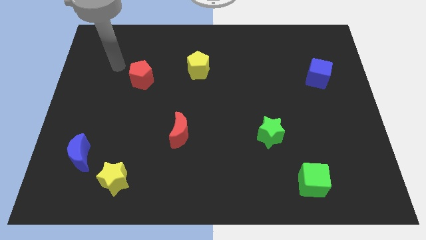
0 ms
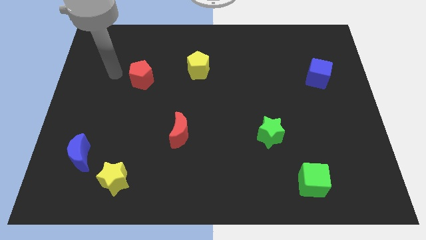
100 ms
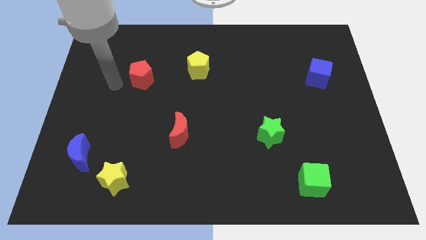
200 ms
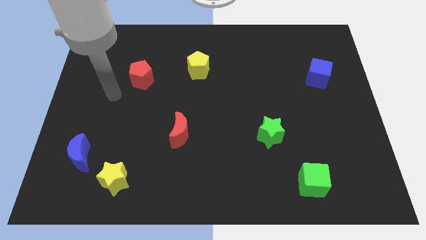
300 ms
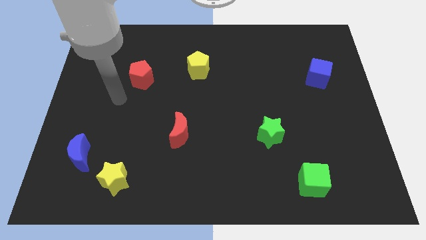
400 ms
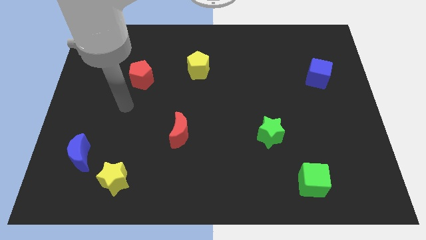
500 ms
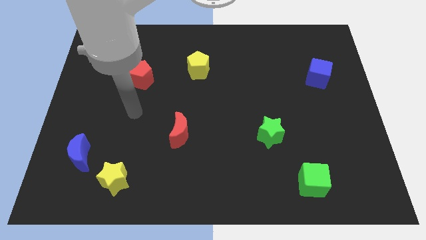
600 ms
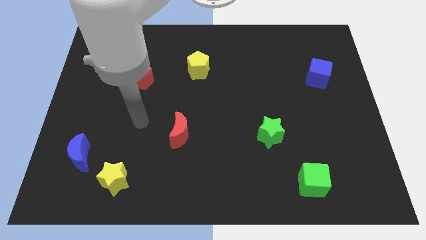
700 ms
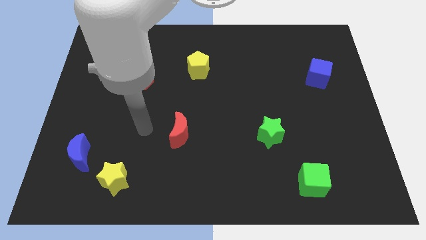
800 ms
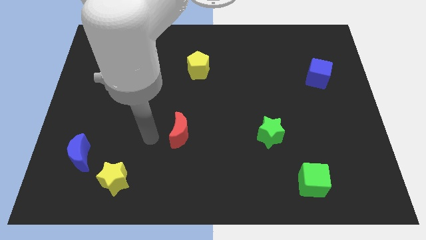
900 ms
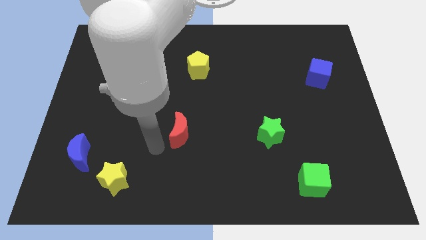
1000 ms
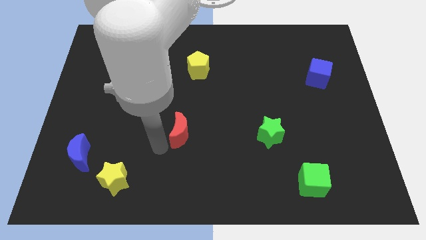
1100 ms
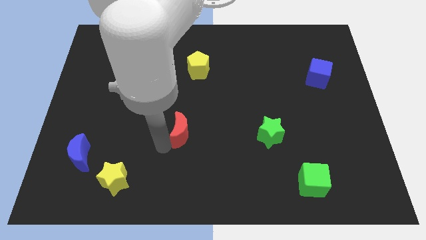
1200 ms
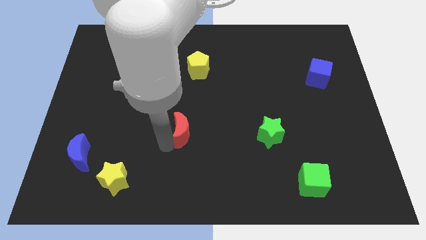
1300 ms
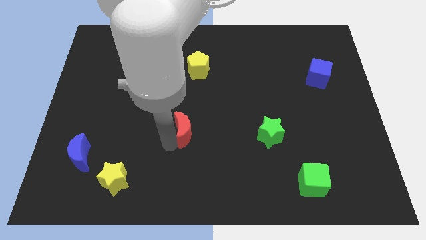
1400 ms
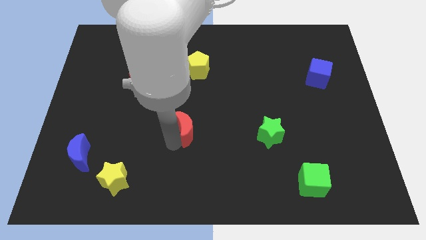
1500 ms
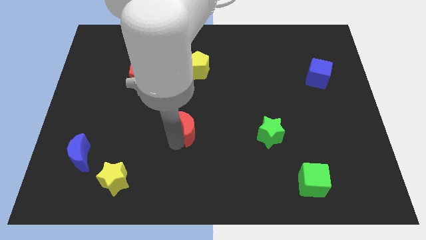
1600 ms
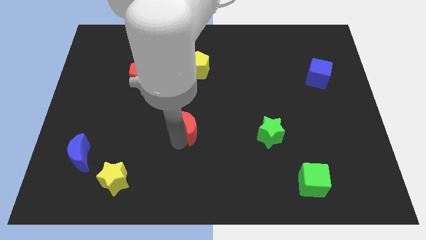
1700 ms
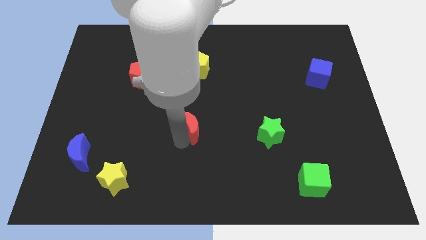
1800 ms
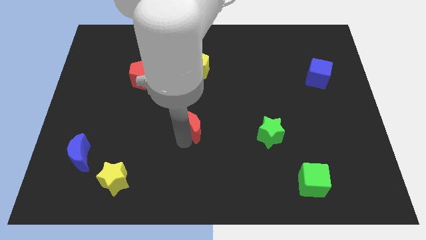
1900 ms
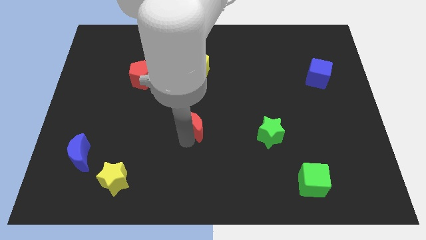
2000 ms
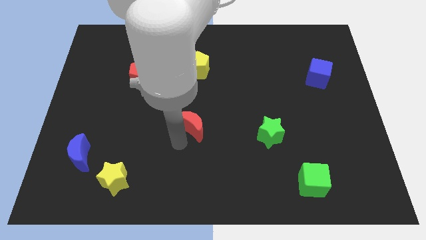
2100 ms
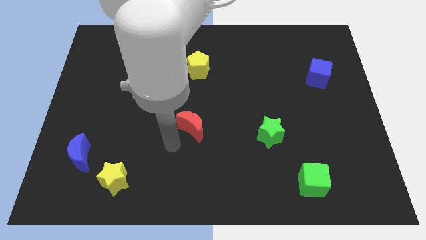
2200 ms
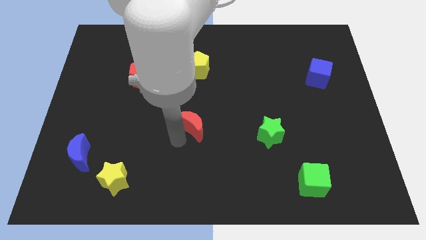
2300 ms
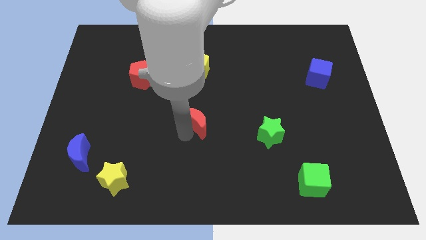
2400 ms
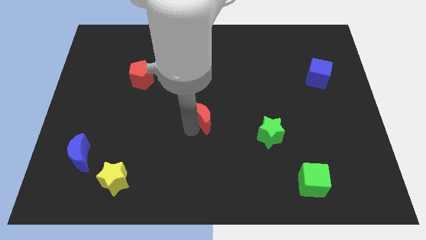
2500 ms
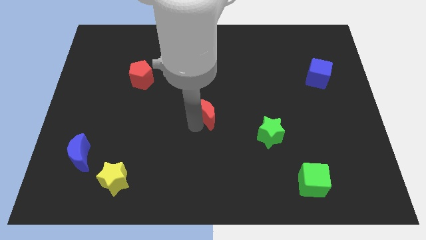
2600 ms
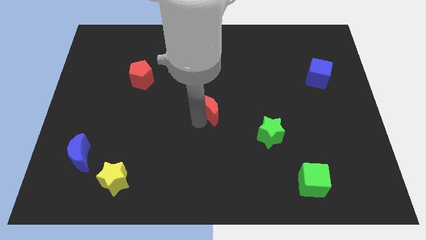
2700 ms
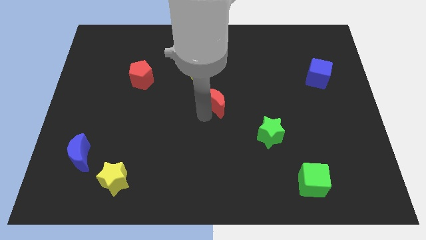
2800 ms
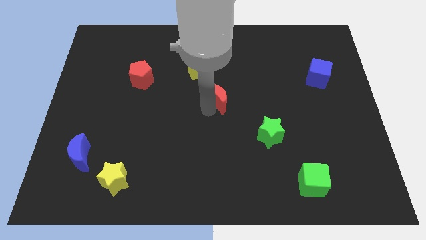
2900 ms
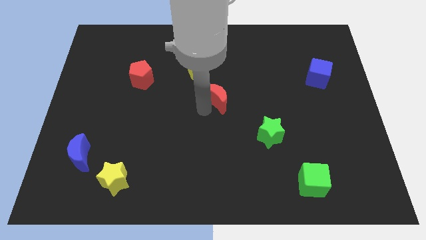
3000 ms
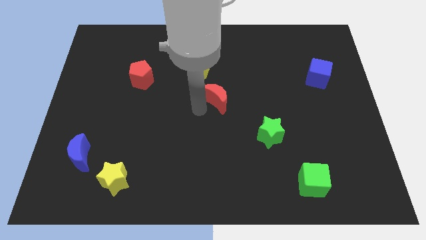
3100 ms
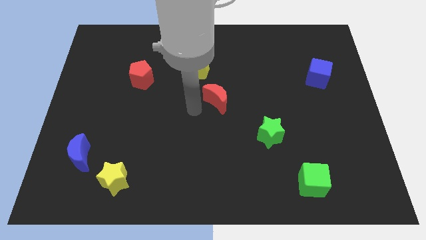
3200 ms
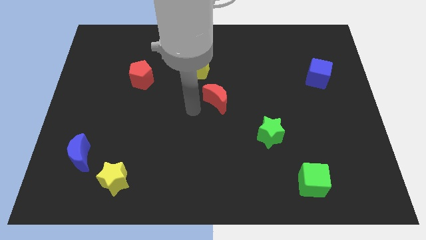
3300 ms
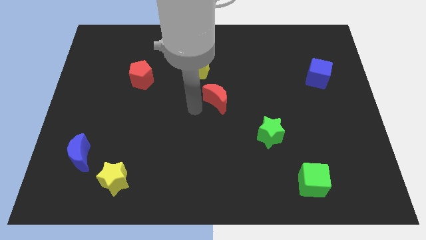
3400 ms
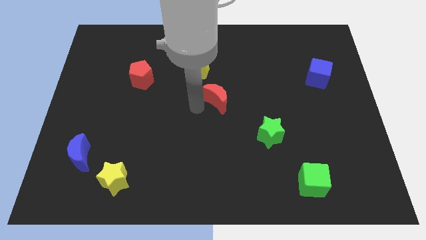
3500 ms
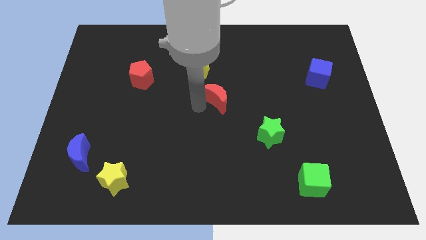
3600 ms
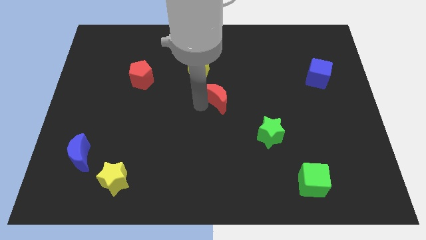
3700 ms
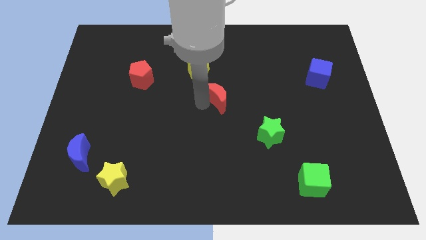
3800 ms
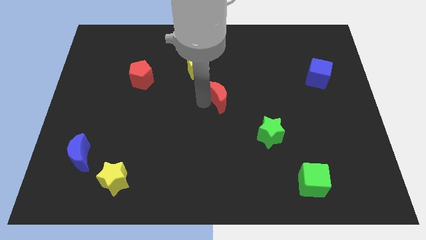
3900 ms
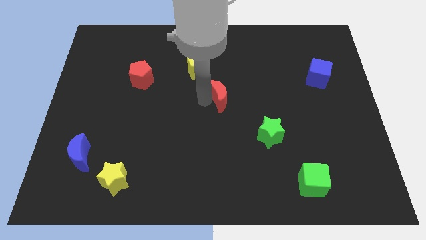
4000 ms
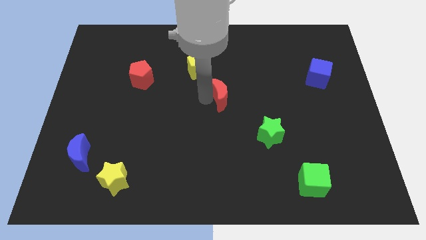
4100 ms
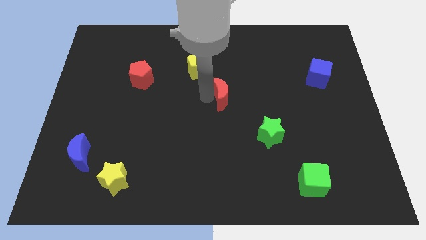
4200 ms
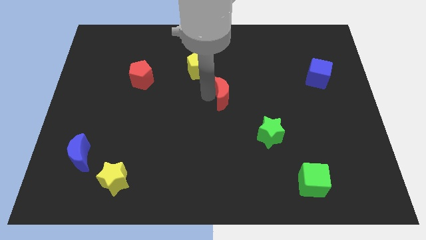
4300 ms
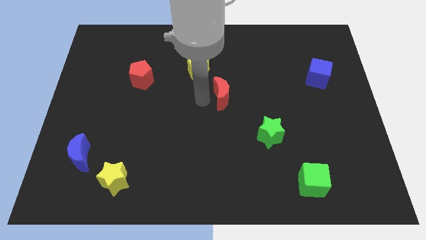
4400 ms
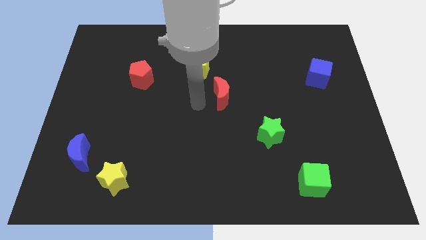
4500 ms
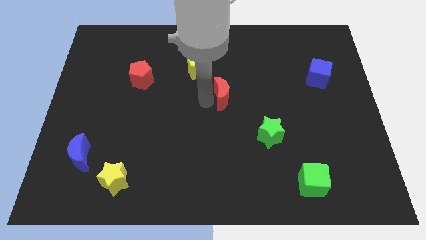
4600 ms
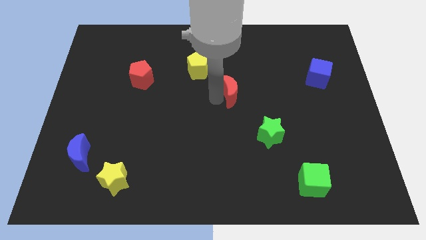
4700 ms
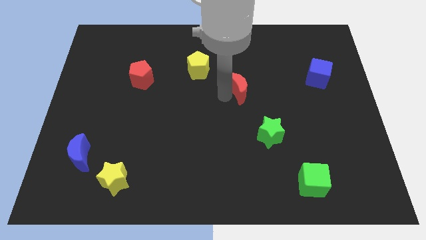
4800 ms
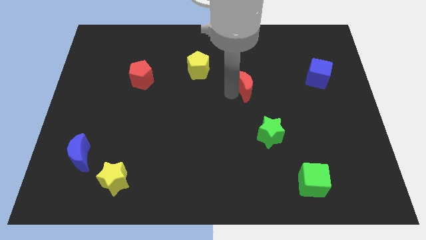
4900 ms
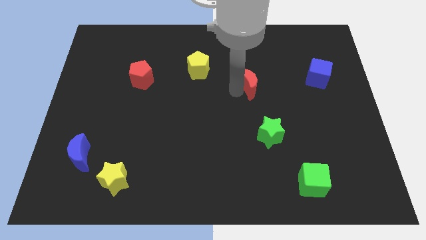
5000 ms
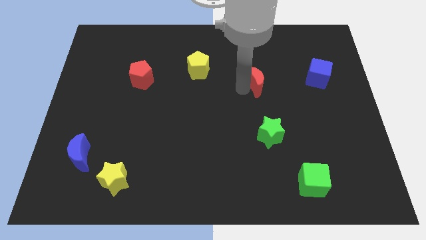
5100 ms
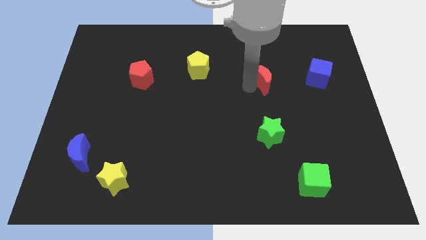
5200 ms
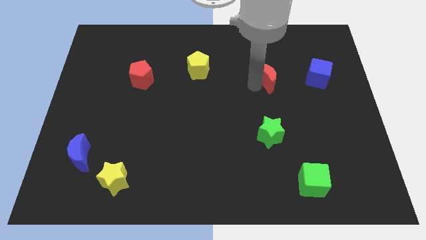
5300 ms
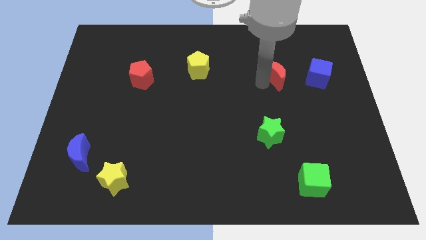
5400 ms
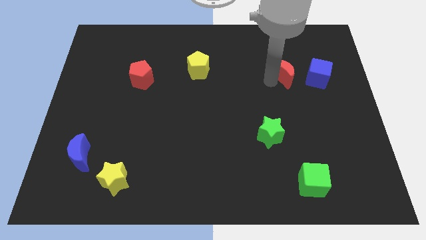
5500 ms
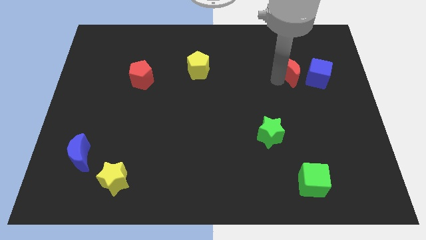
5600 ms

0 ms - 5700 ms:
slide the red moon to the top left of the blue cube

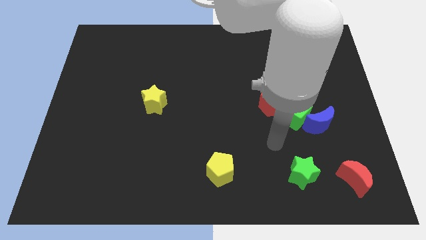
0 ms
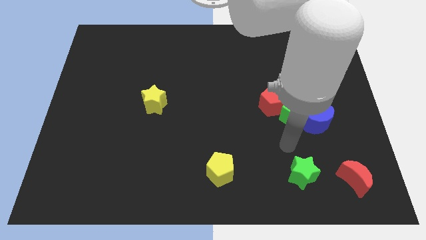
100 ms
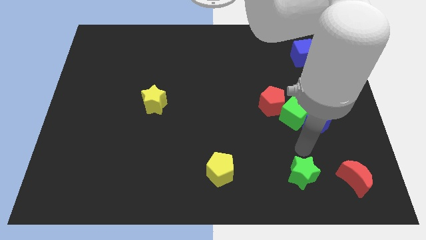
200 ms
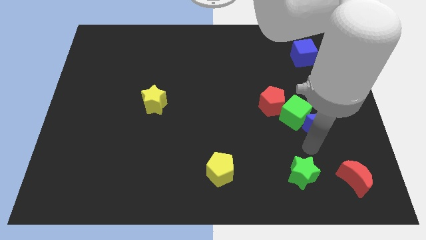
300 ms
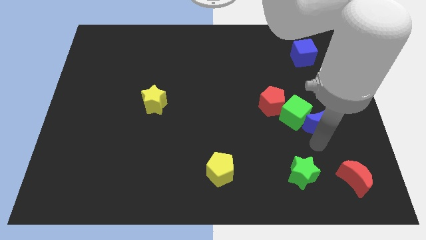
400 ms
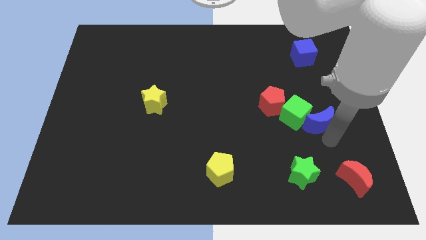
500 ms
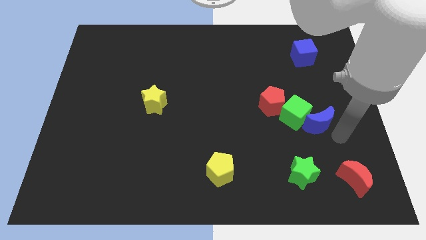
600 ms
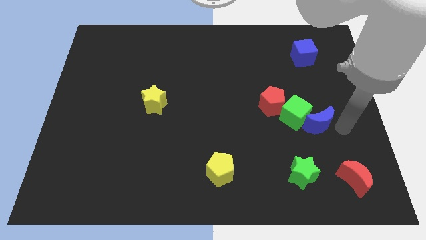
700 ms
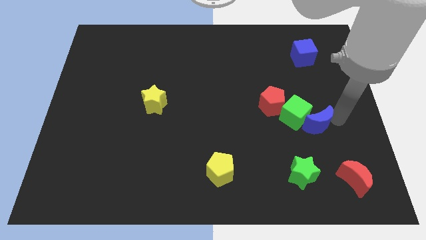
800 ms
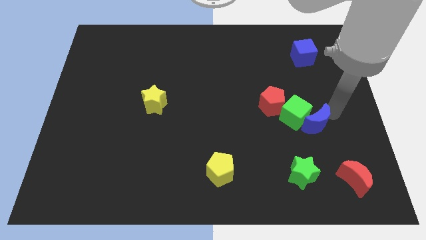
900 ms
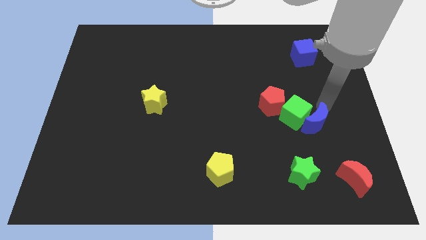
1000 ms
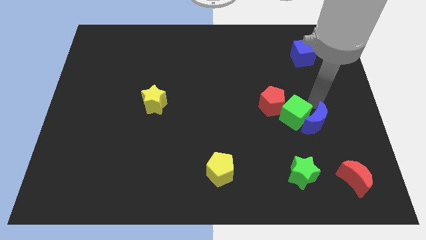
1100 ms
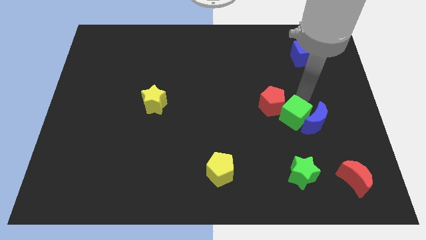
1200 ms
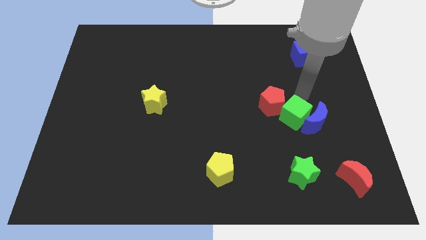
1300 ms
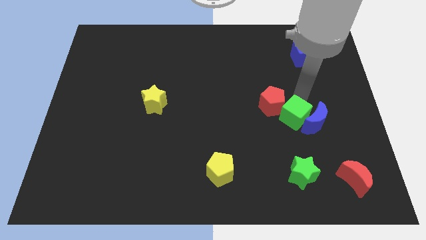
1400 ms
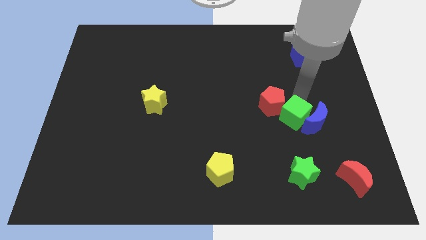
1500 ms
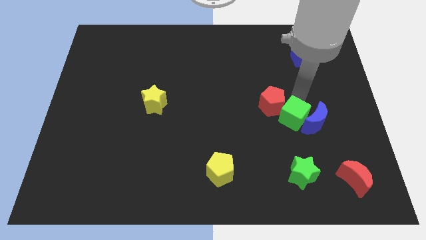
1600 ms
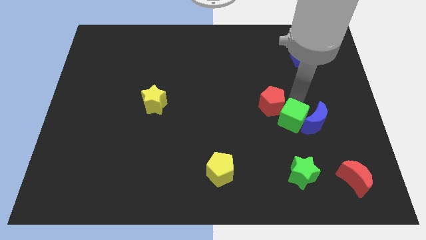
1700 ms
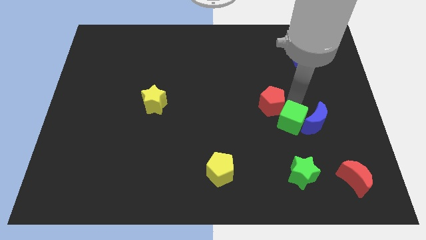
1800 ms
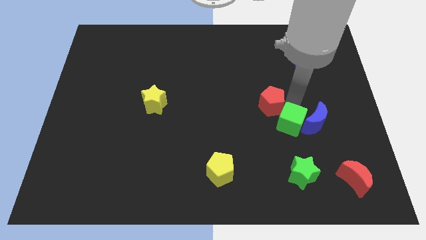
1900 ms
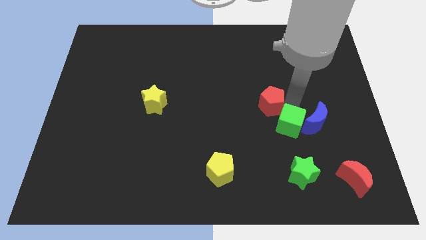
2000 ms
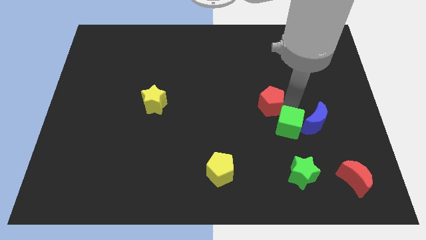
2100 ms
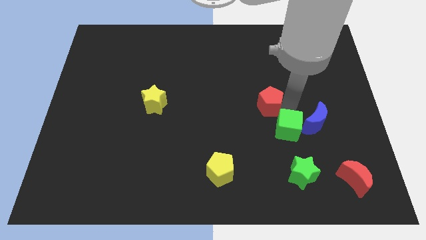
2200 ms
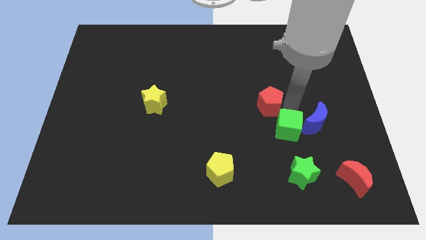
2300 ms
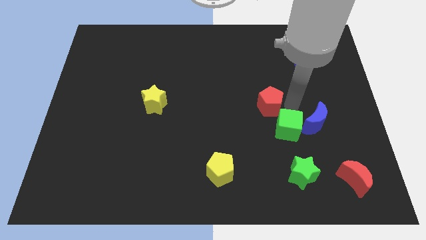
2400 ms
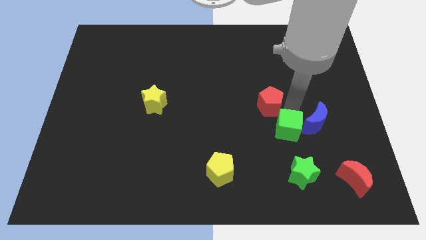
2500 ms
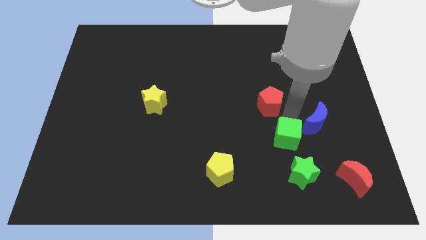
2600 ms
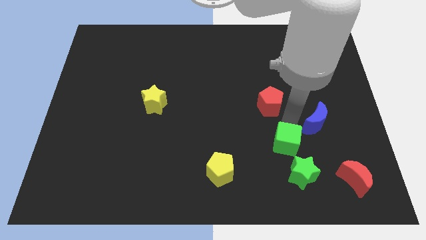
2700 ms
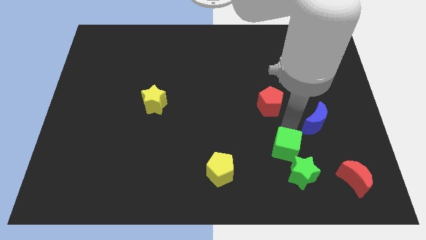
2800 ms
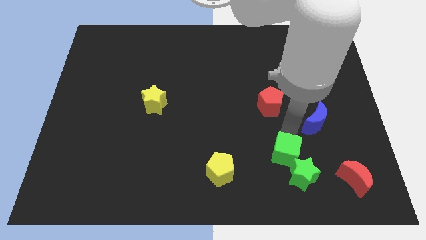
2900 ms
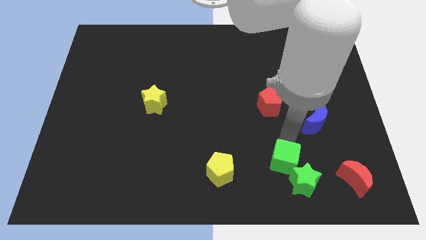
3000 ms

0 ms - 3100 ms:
push the green cube left of the red moon
